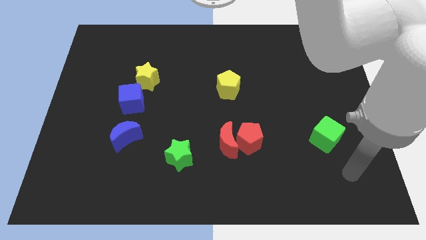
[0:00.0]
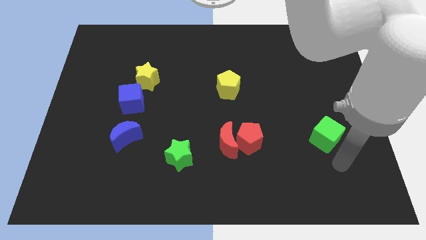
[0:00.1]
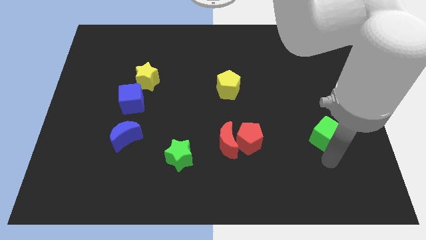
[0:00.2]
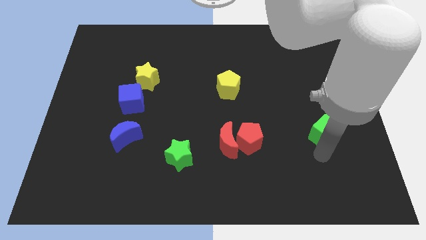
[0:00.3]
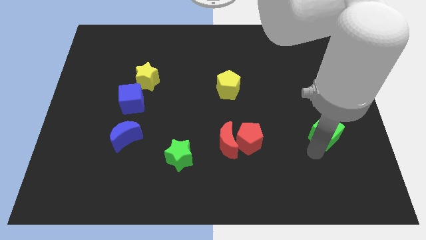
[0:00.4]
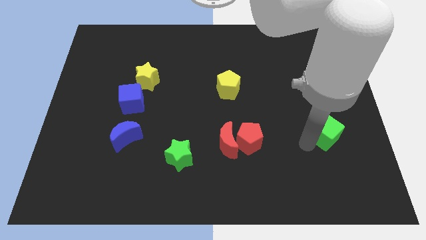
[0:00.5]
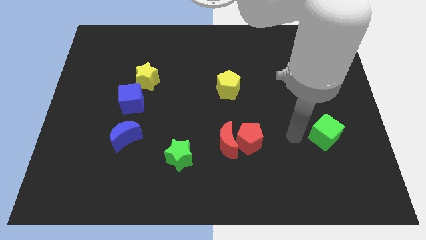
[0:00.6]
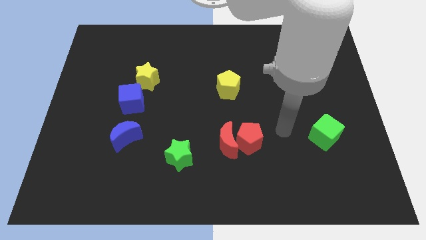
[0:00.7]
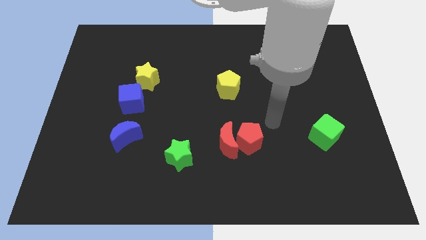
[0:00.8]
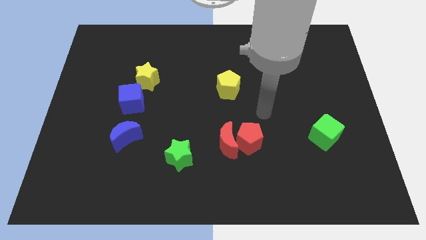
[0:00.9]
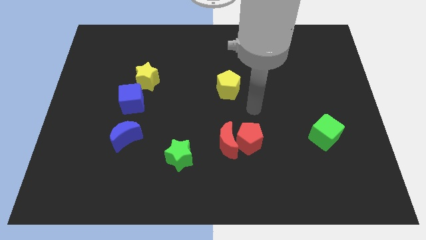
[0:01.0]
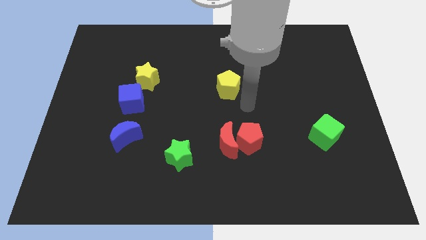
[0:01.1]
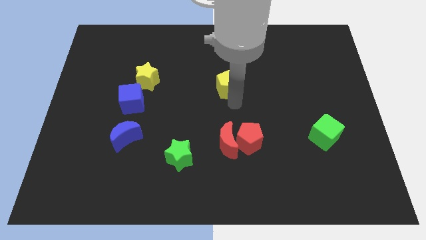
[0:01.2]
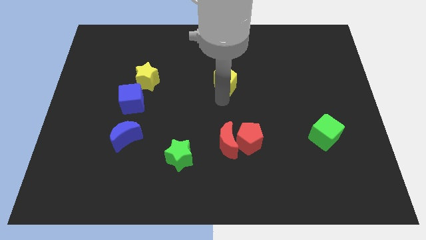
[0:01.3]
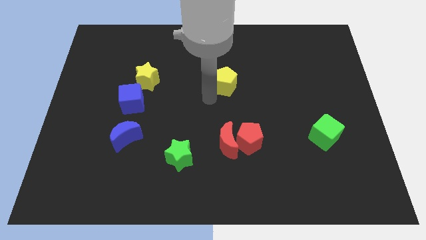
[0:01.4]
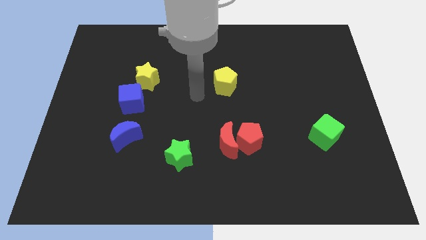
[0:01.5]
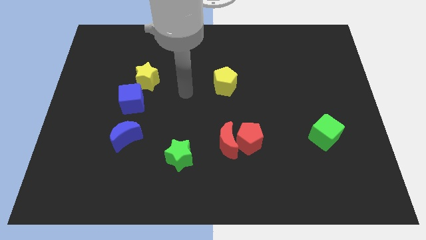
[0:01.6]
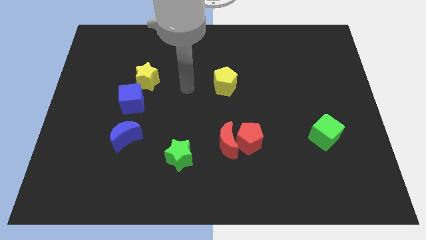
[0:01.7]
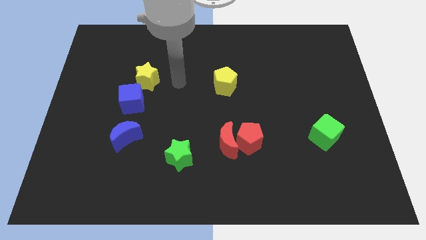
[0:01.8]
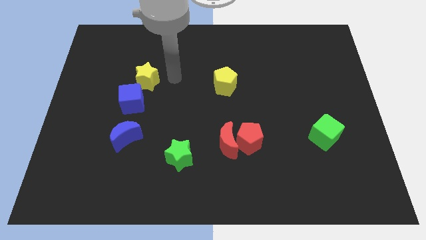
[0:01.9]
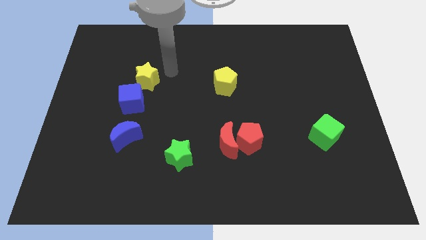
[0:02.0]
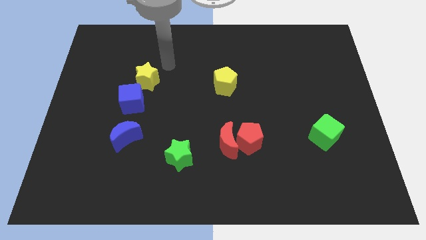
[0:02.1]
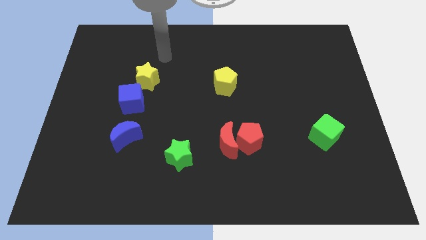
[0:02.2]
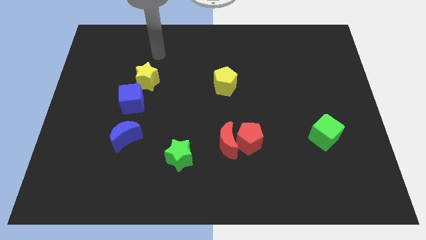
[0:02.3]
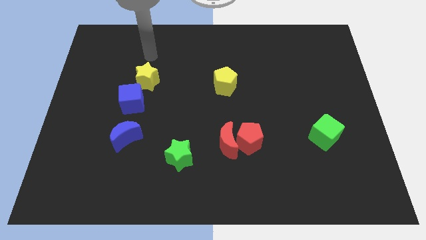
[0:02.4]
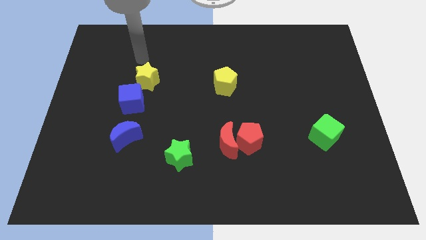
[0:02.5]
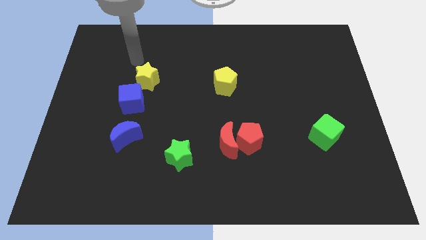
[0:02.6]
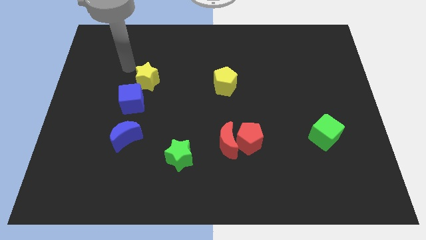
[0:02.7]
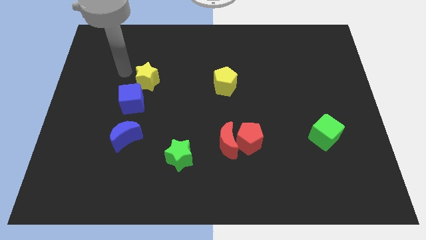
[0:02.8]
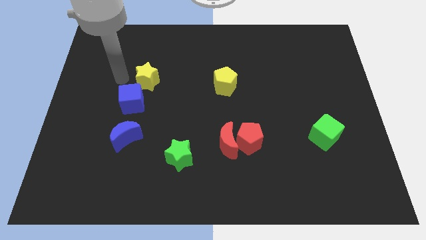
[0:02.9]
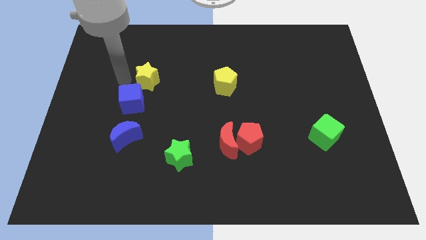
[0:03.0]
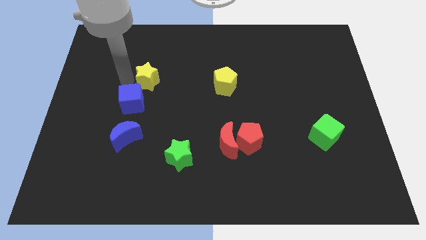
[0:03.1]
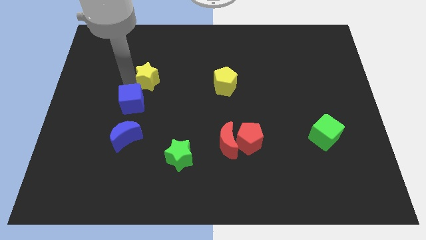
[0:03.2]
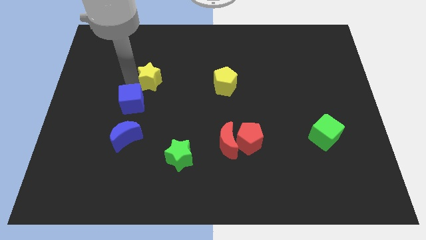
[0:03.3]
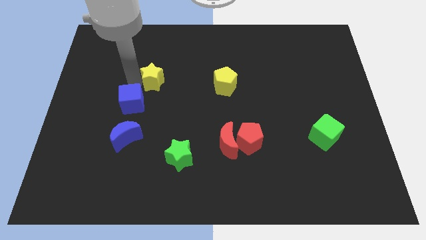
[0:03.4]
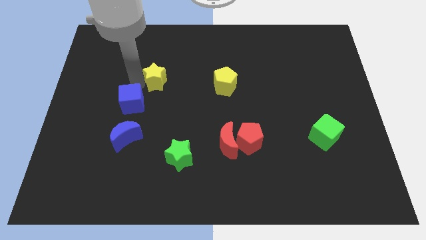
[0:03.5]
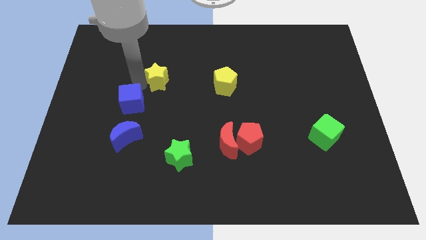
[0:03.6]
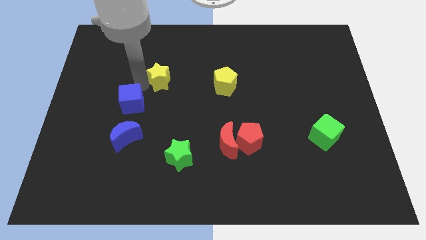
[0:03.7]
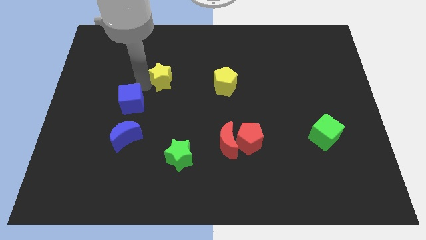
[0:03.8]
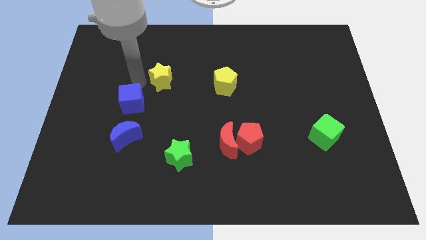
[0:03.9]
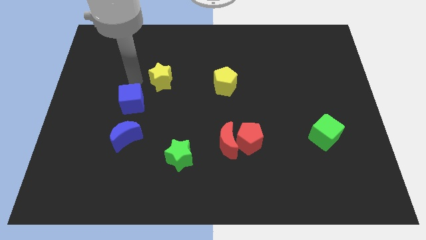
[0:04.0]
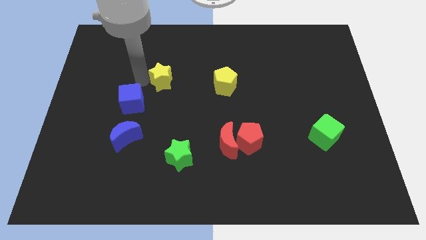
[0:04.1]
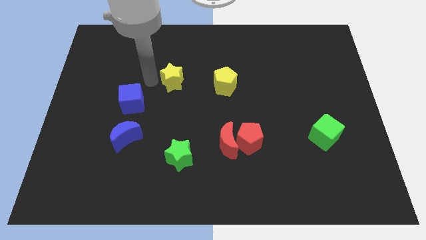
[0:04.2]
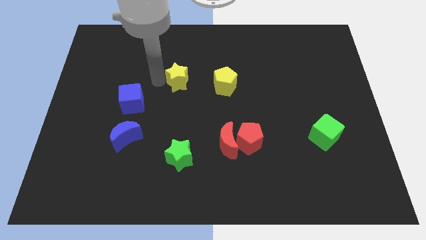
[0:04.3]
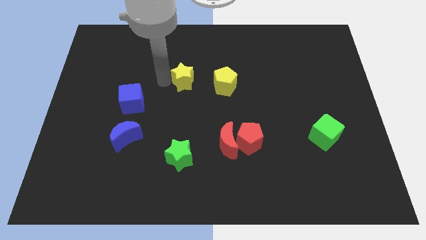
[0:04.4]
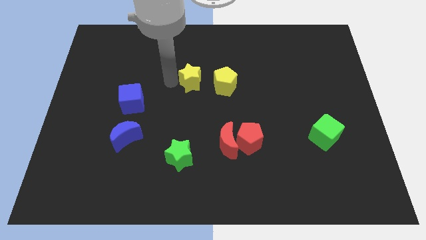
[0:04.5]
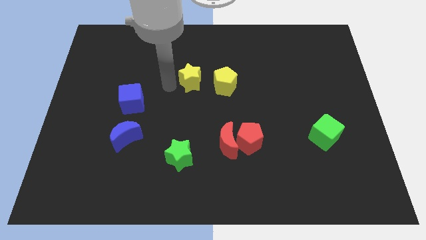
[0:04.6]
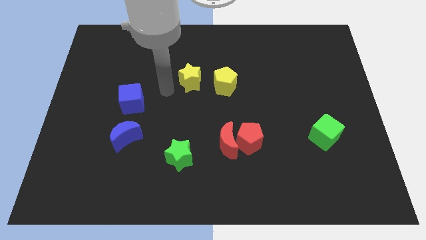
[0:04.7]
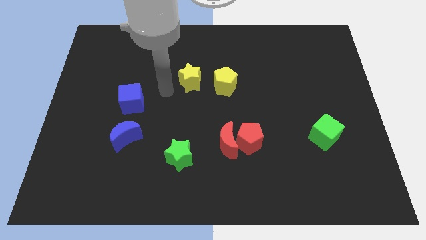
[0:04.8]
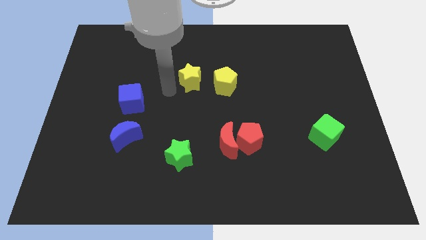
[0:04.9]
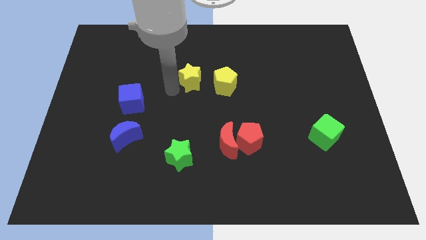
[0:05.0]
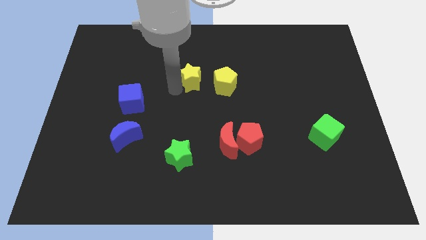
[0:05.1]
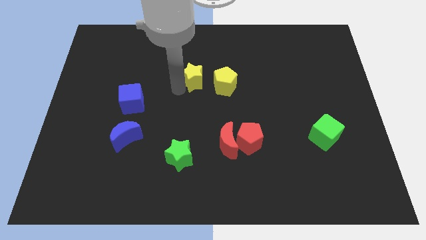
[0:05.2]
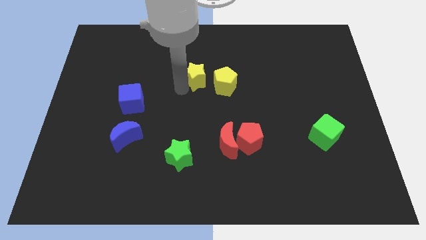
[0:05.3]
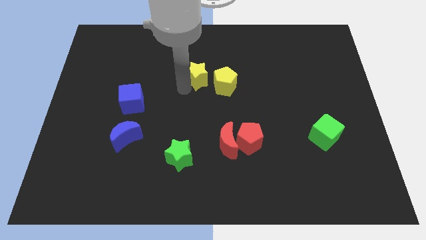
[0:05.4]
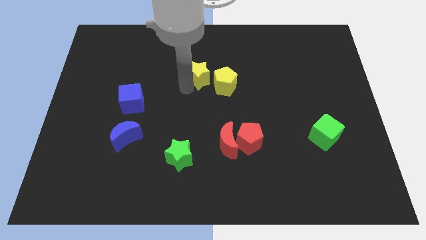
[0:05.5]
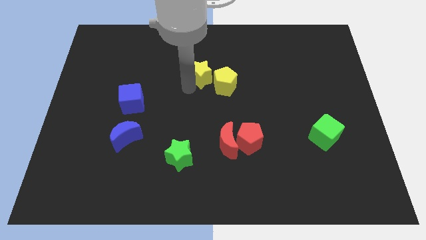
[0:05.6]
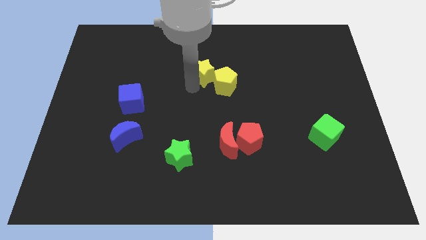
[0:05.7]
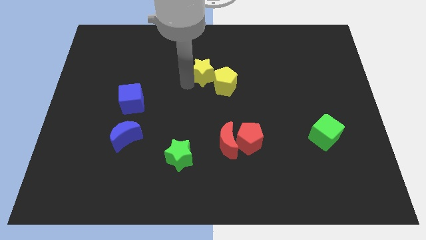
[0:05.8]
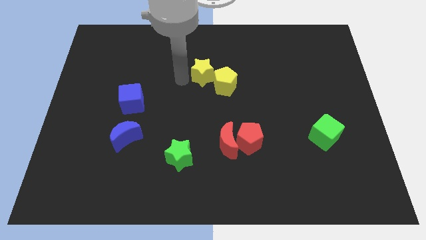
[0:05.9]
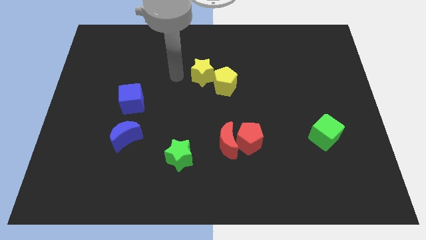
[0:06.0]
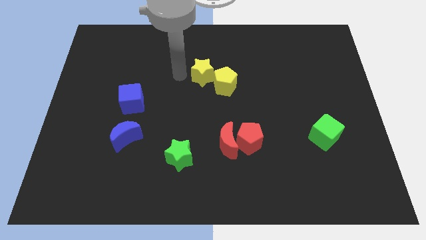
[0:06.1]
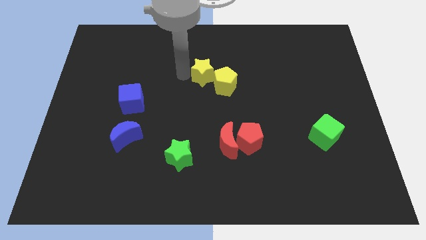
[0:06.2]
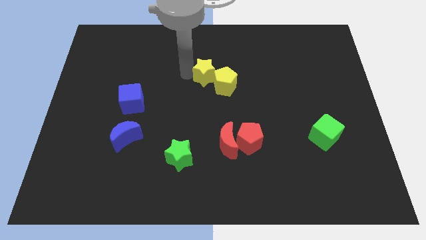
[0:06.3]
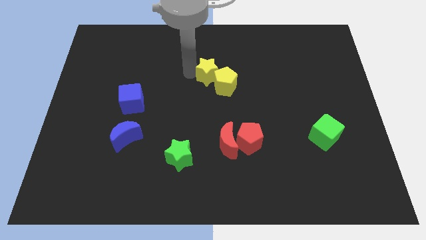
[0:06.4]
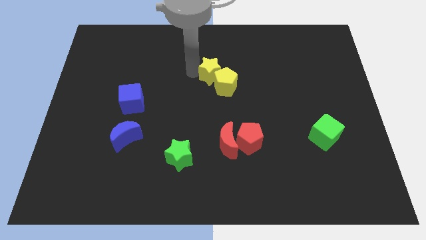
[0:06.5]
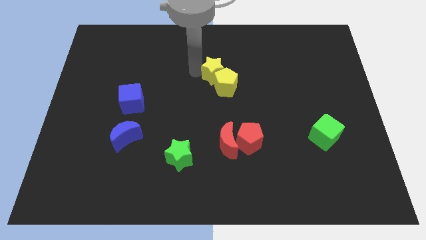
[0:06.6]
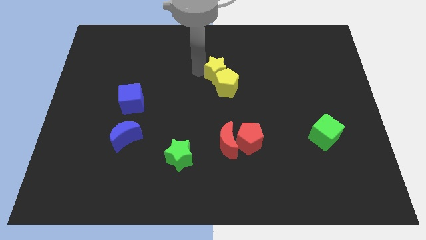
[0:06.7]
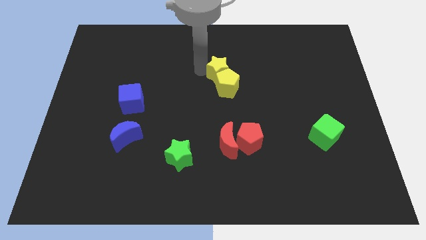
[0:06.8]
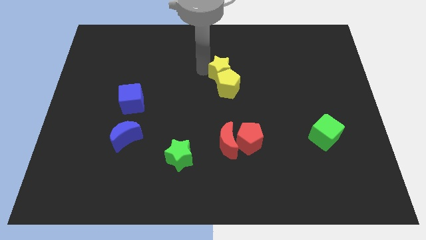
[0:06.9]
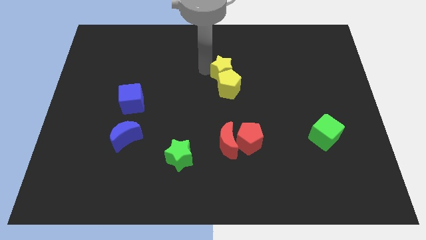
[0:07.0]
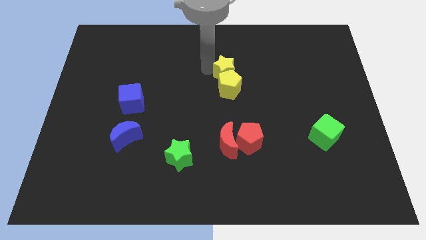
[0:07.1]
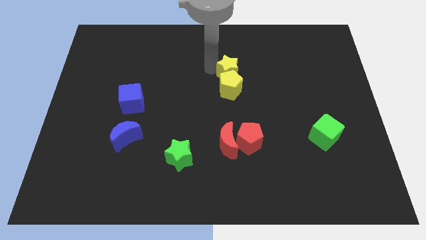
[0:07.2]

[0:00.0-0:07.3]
slide the yellow star to the right

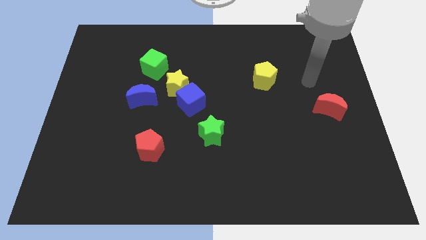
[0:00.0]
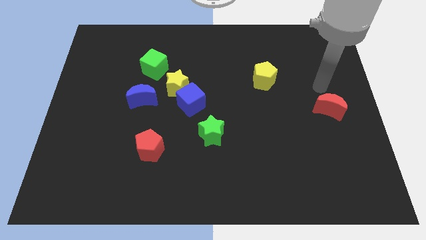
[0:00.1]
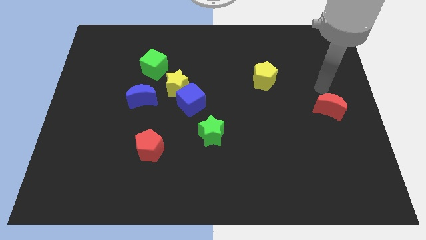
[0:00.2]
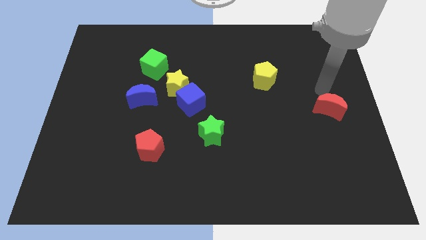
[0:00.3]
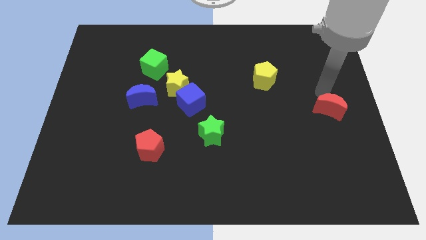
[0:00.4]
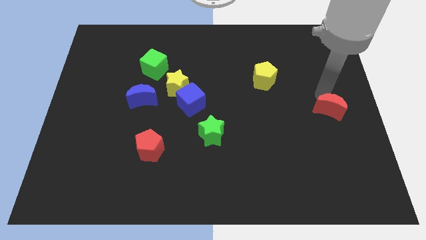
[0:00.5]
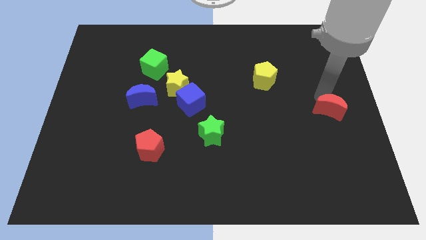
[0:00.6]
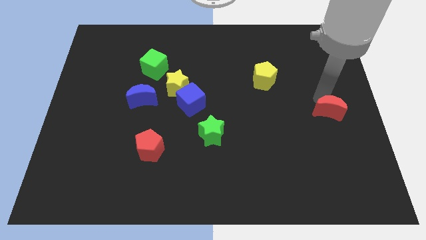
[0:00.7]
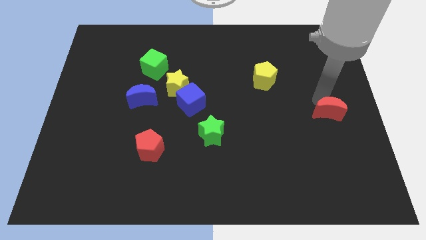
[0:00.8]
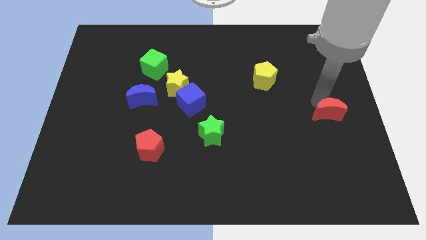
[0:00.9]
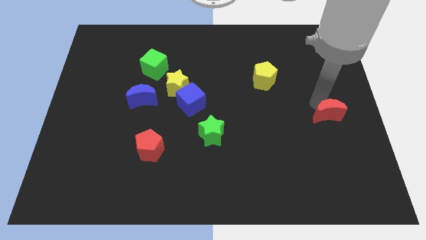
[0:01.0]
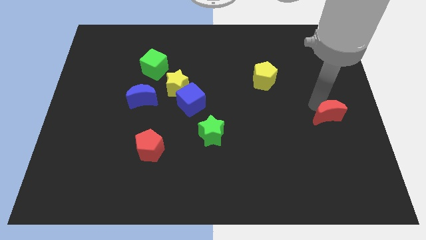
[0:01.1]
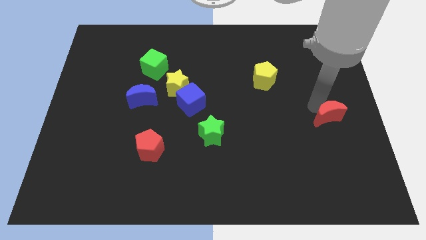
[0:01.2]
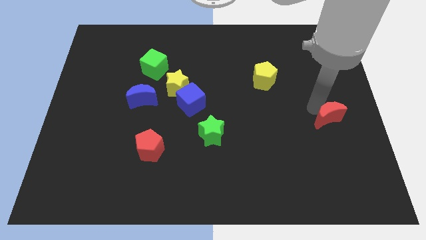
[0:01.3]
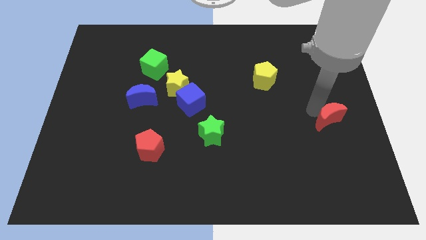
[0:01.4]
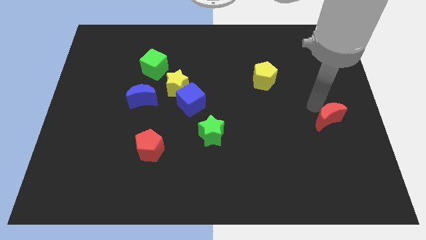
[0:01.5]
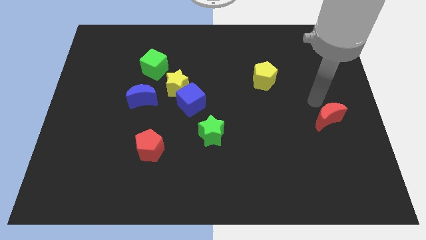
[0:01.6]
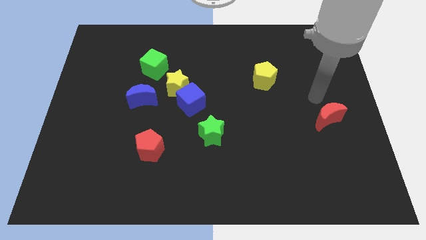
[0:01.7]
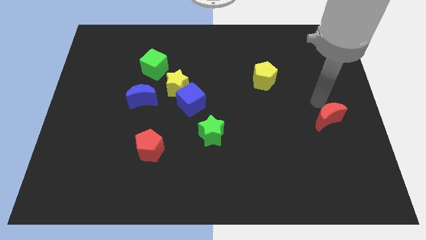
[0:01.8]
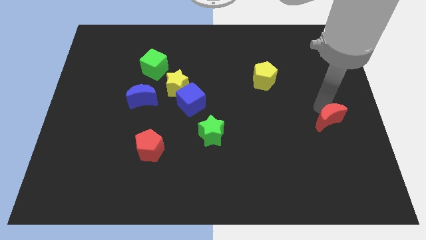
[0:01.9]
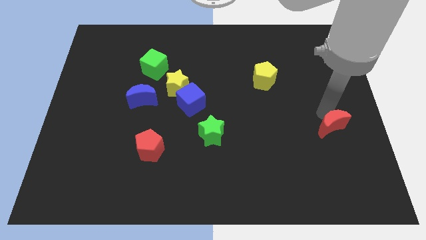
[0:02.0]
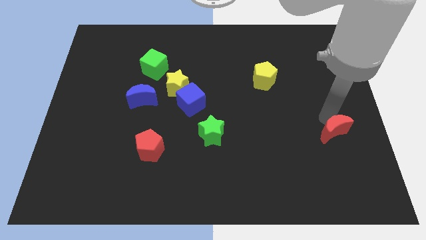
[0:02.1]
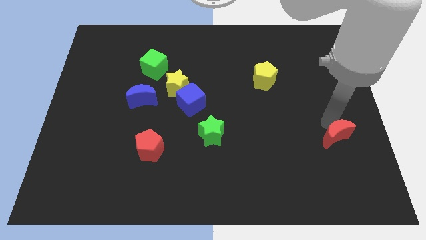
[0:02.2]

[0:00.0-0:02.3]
slide the red moon slightly downwards
